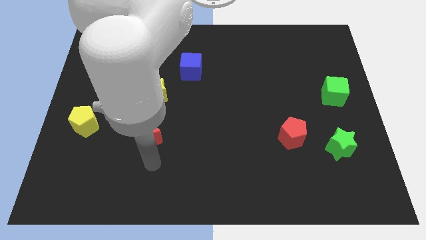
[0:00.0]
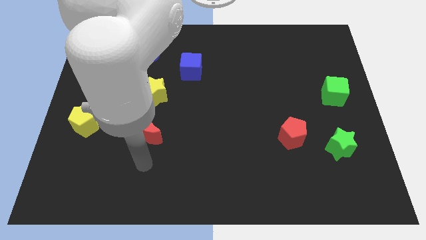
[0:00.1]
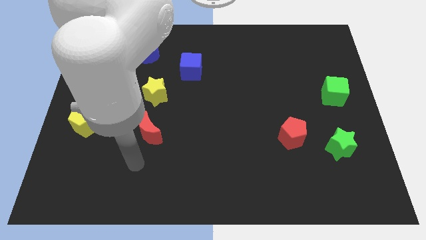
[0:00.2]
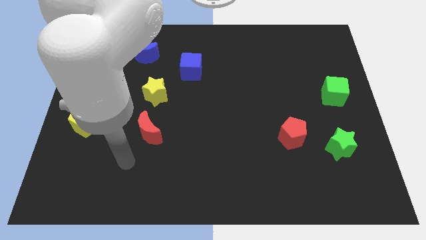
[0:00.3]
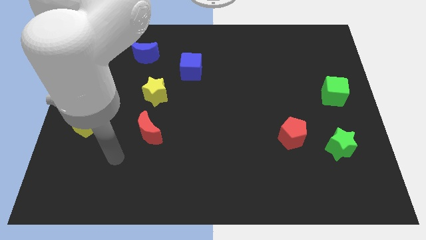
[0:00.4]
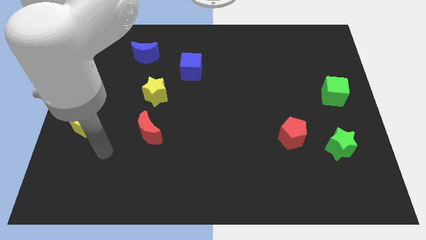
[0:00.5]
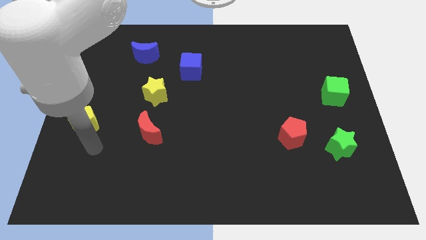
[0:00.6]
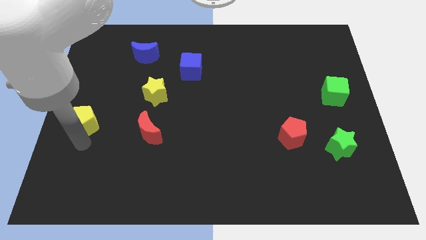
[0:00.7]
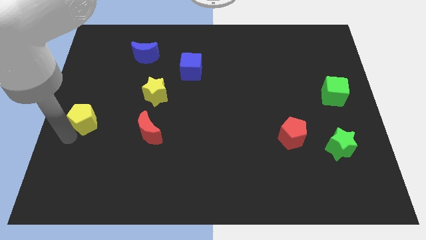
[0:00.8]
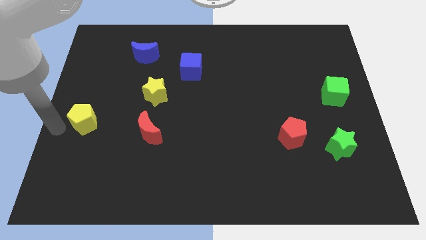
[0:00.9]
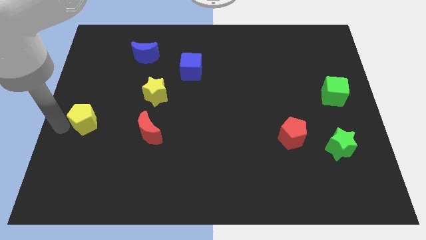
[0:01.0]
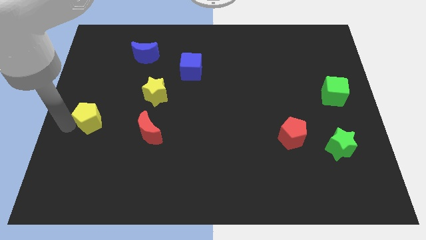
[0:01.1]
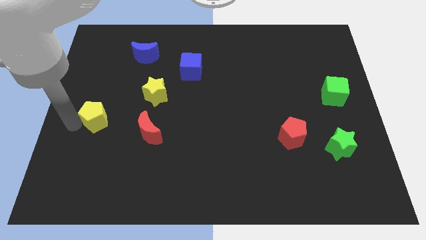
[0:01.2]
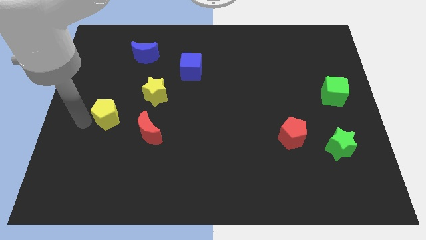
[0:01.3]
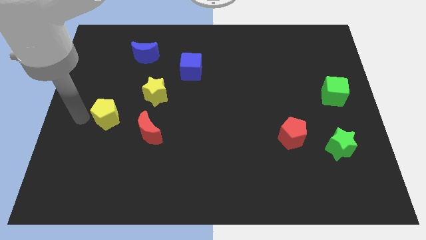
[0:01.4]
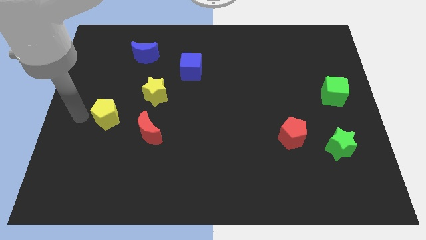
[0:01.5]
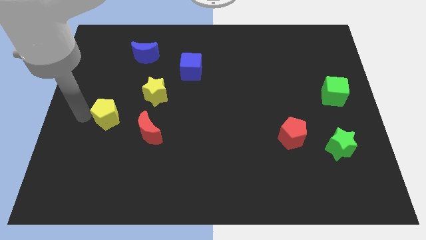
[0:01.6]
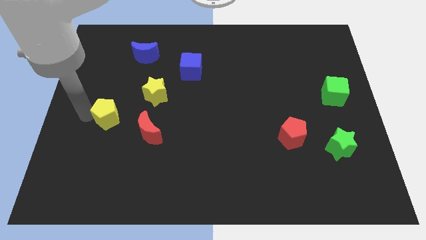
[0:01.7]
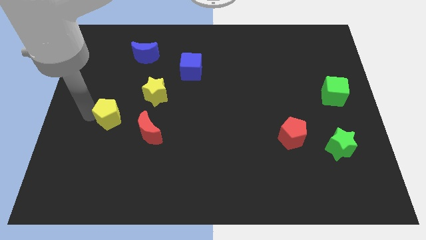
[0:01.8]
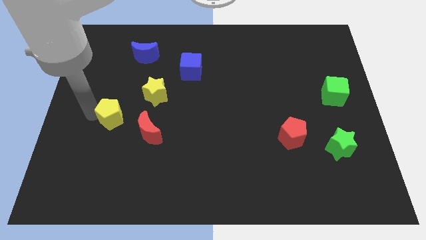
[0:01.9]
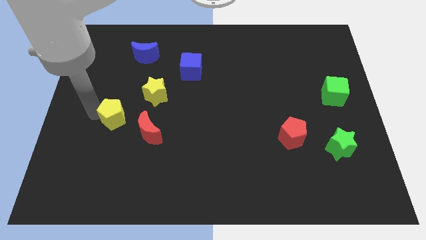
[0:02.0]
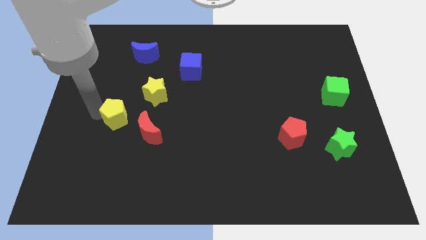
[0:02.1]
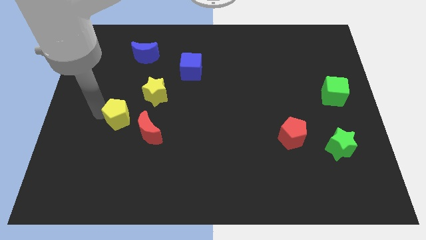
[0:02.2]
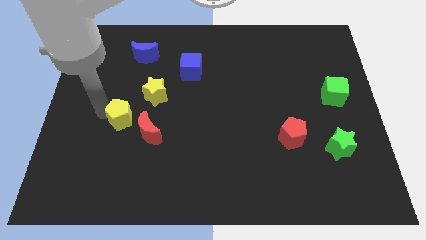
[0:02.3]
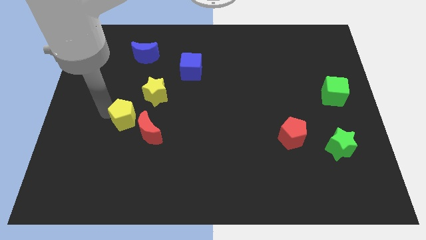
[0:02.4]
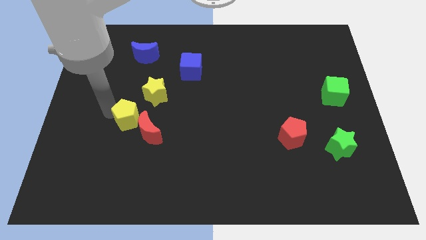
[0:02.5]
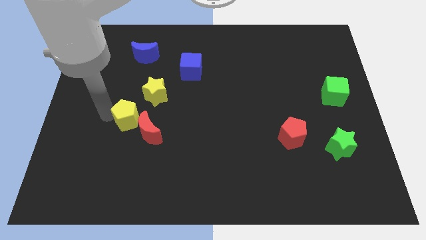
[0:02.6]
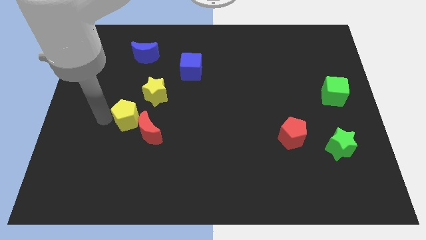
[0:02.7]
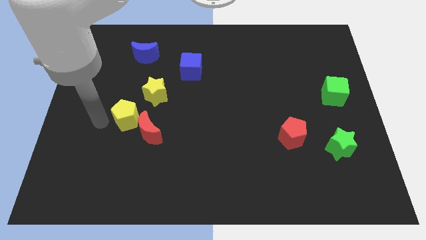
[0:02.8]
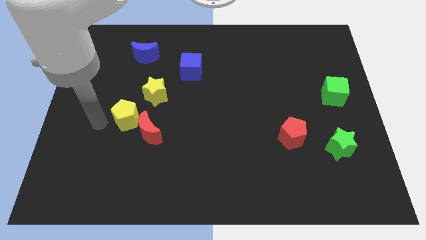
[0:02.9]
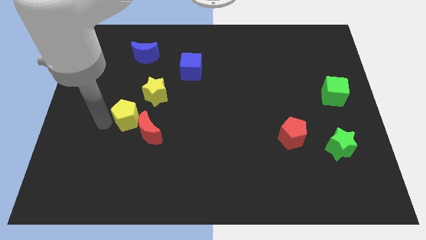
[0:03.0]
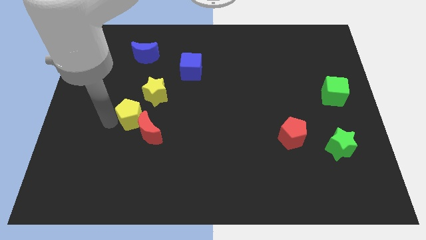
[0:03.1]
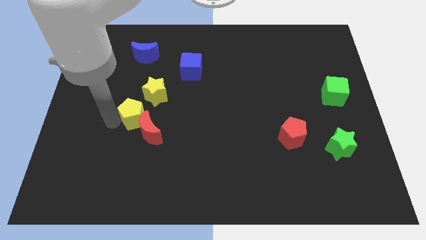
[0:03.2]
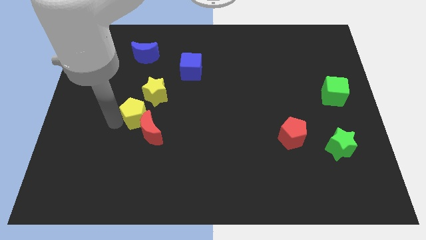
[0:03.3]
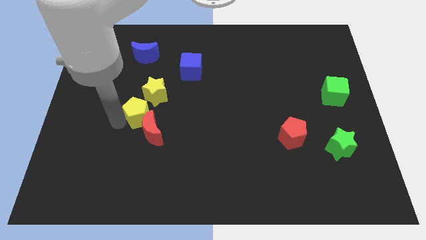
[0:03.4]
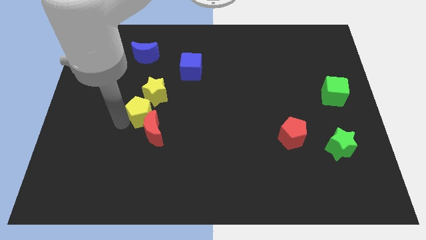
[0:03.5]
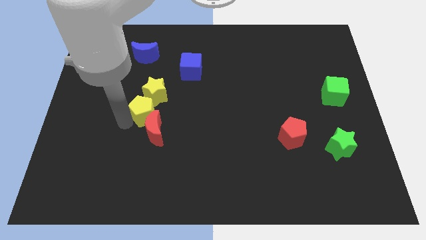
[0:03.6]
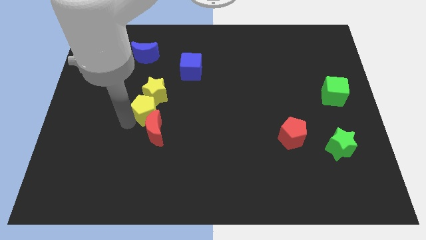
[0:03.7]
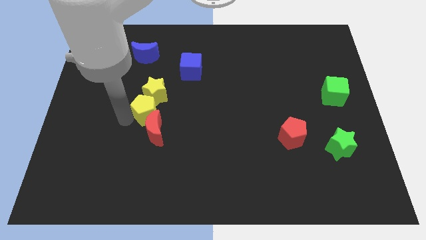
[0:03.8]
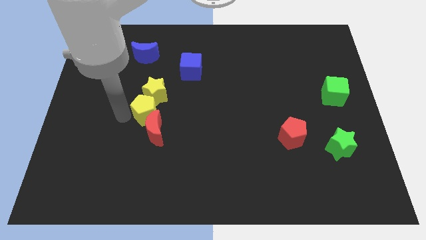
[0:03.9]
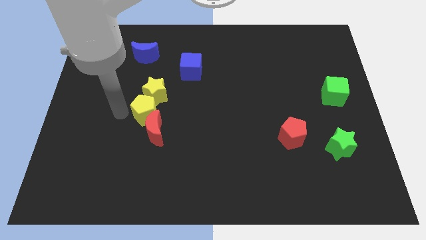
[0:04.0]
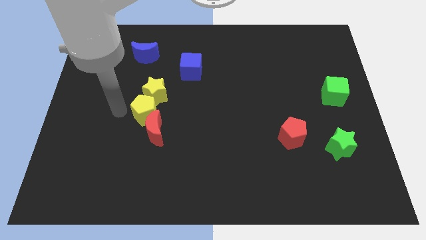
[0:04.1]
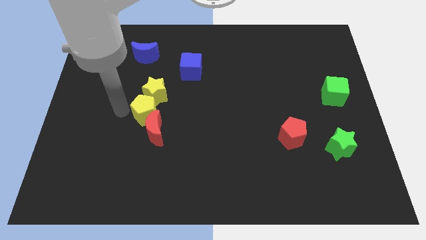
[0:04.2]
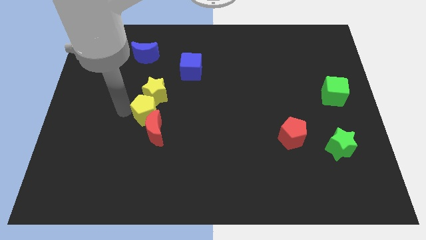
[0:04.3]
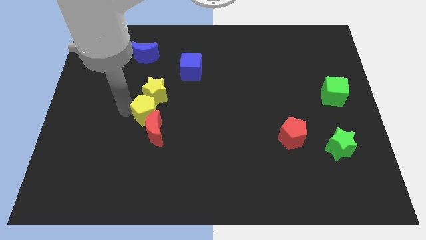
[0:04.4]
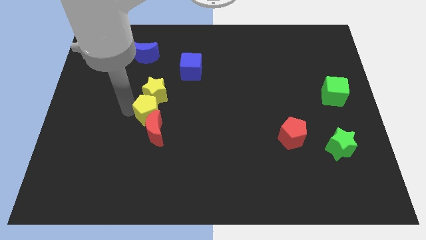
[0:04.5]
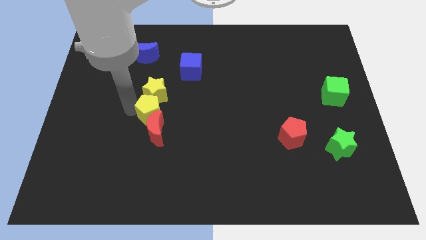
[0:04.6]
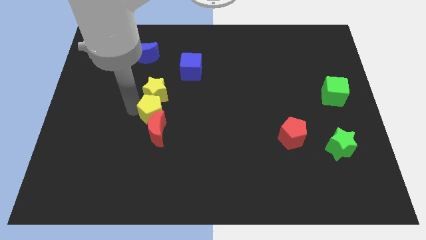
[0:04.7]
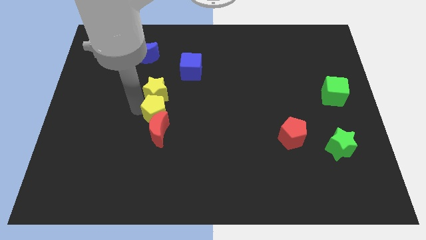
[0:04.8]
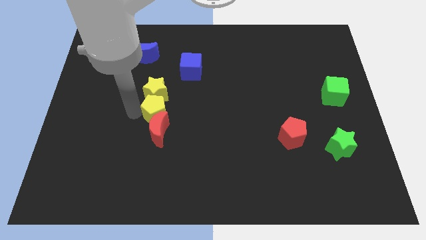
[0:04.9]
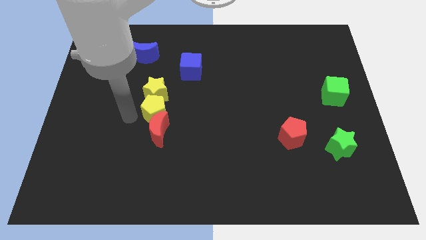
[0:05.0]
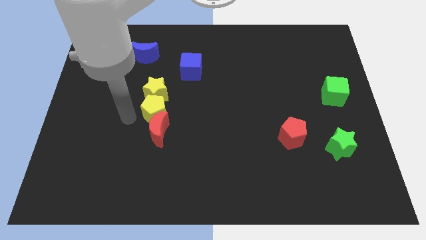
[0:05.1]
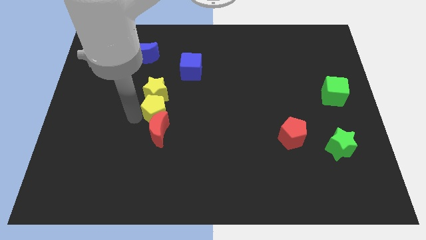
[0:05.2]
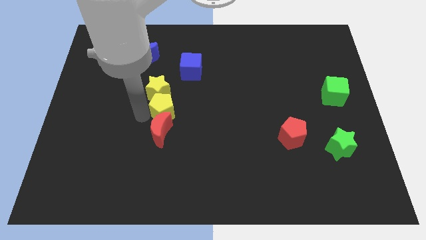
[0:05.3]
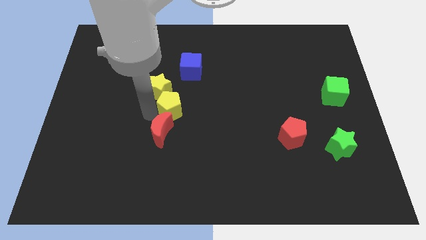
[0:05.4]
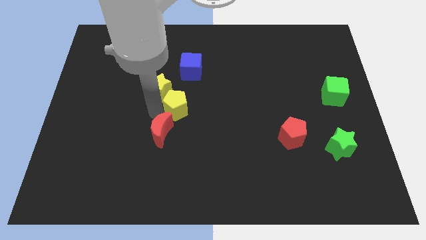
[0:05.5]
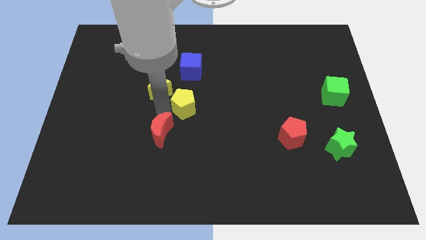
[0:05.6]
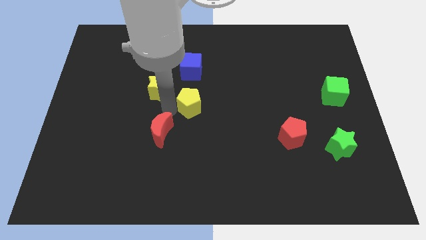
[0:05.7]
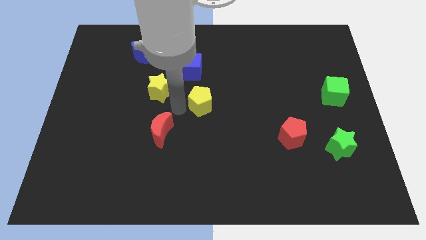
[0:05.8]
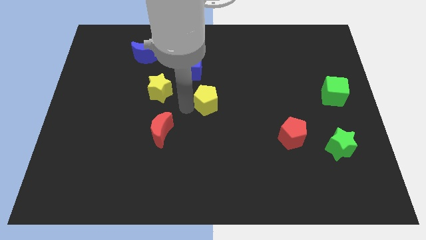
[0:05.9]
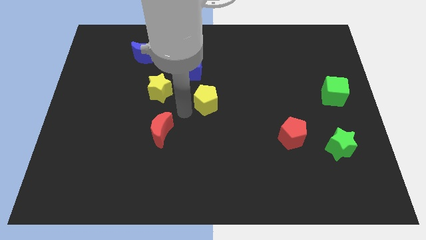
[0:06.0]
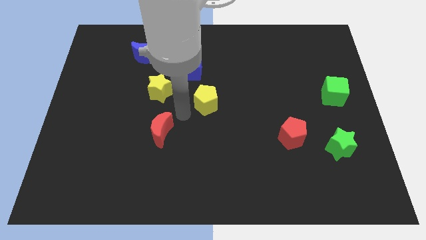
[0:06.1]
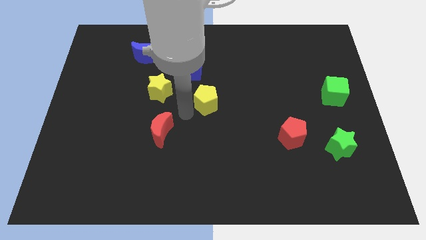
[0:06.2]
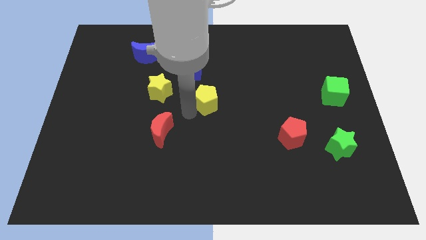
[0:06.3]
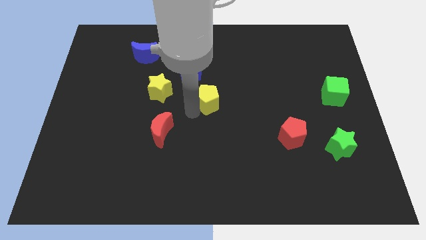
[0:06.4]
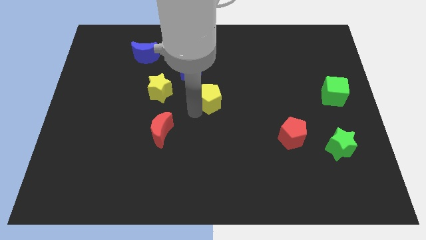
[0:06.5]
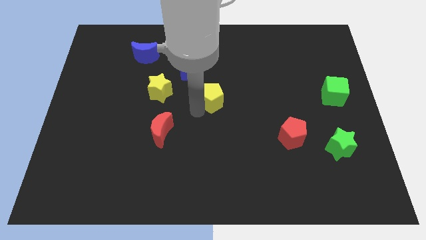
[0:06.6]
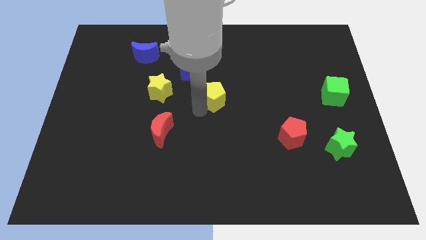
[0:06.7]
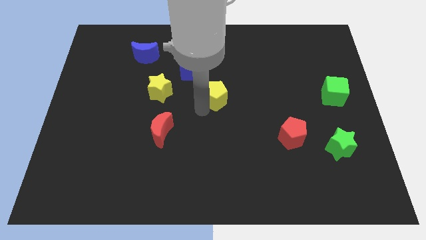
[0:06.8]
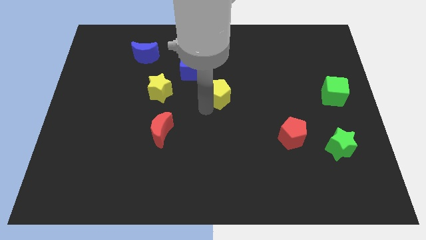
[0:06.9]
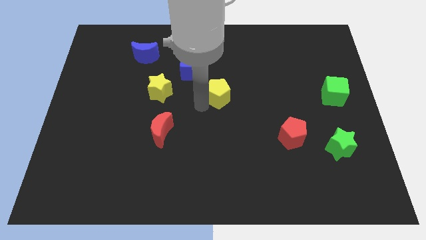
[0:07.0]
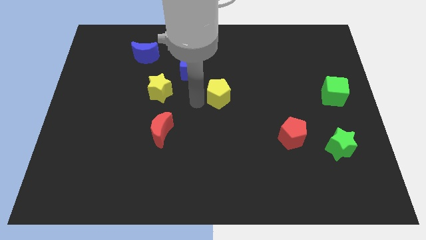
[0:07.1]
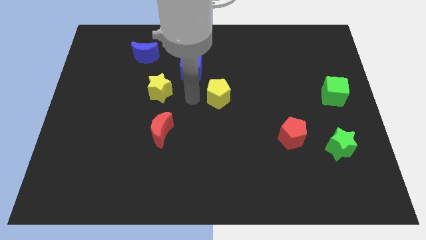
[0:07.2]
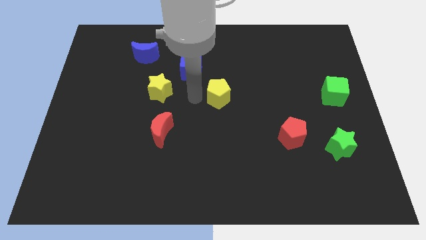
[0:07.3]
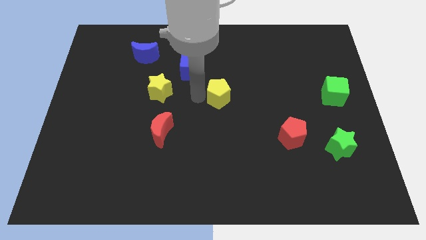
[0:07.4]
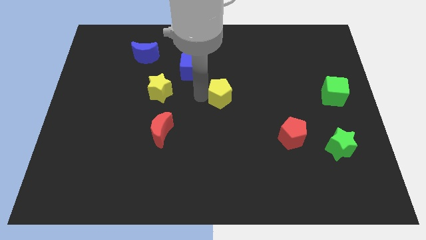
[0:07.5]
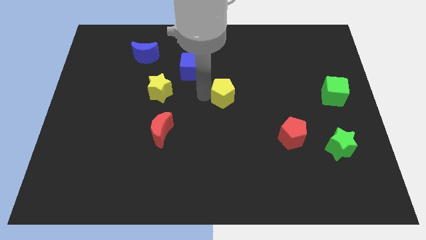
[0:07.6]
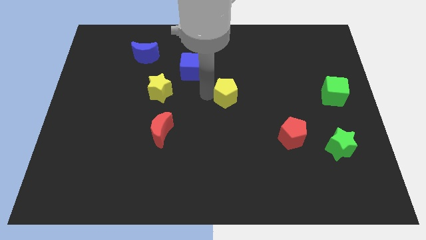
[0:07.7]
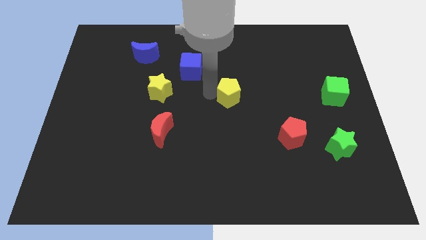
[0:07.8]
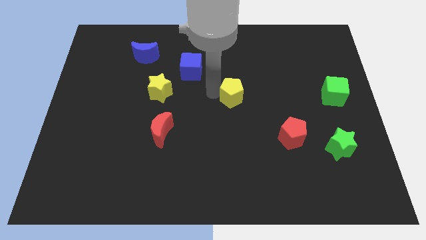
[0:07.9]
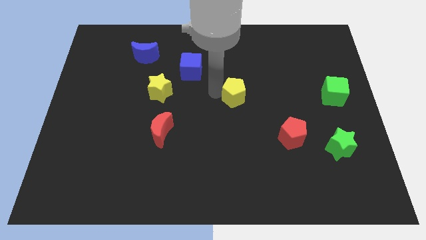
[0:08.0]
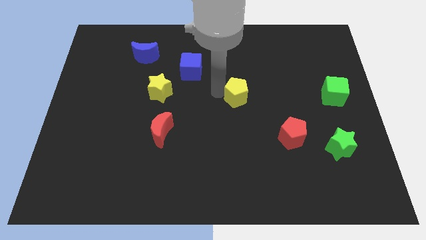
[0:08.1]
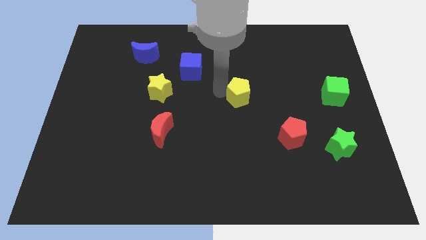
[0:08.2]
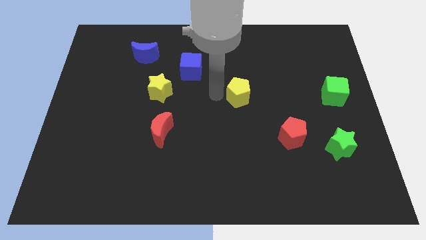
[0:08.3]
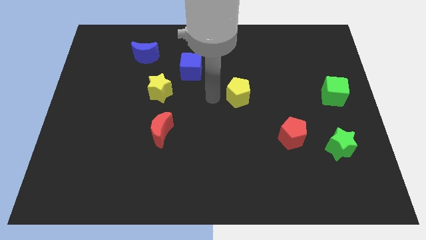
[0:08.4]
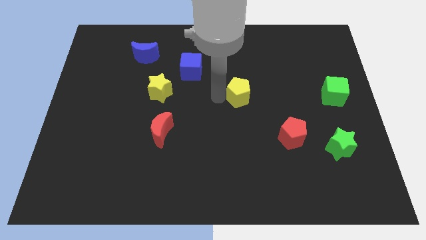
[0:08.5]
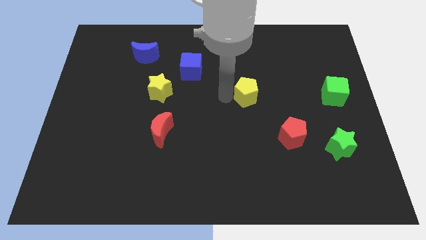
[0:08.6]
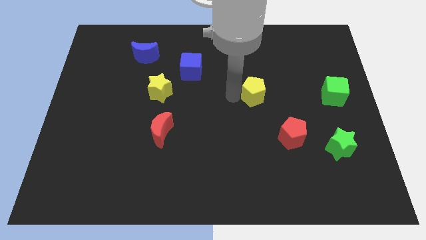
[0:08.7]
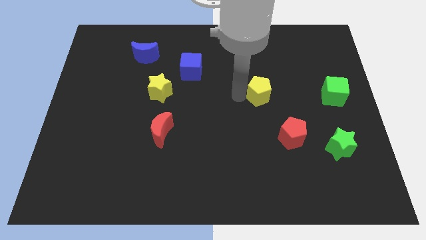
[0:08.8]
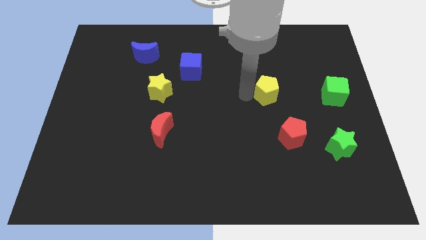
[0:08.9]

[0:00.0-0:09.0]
slide the yellow pentagon just left of the green cube
